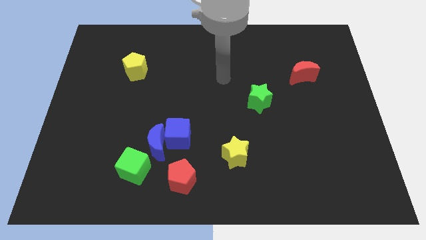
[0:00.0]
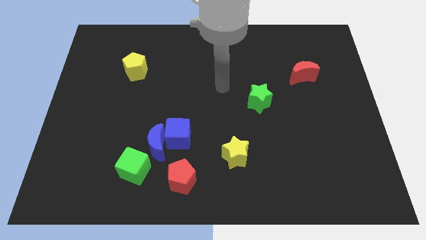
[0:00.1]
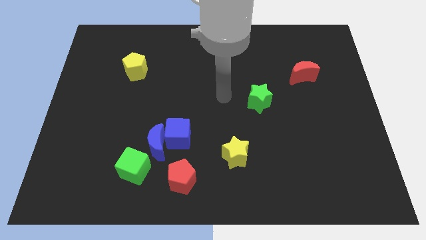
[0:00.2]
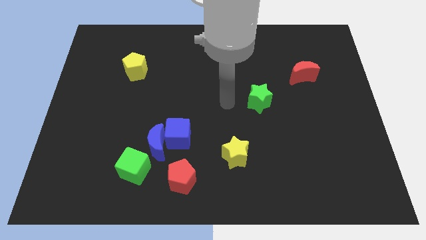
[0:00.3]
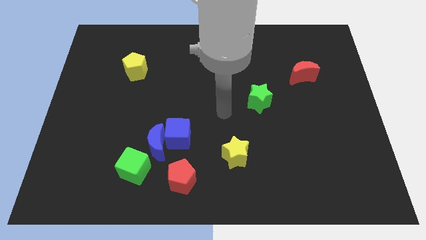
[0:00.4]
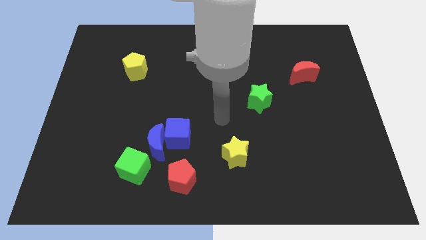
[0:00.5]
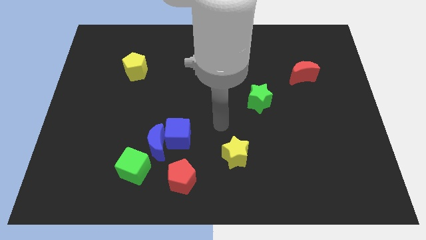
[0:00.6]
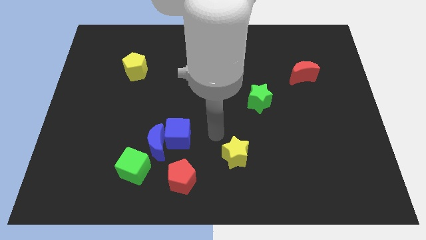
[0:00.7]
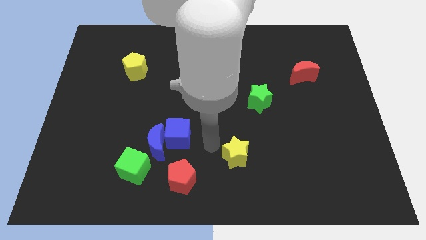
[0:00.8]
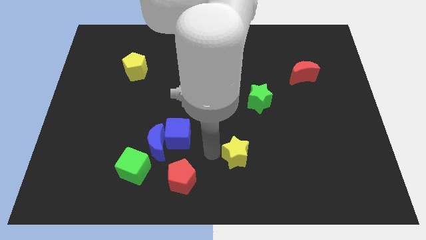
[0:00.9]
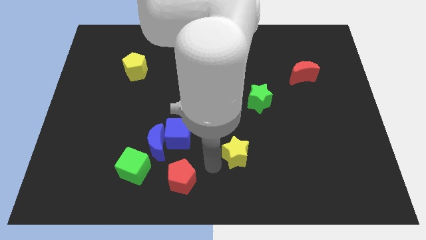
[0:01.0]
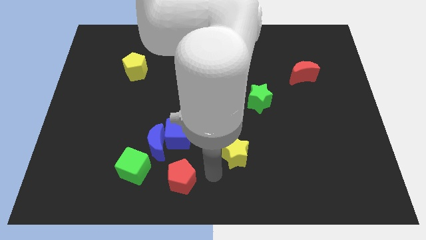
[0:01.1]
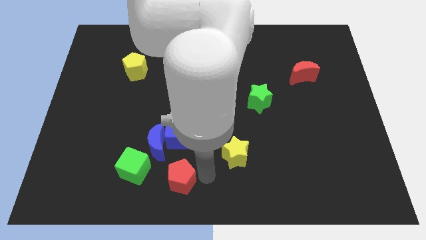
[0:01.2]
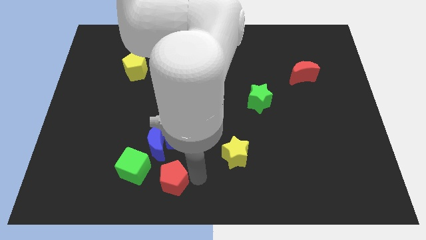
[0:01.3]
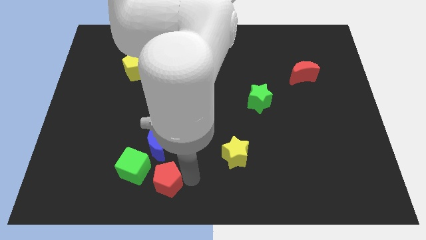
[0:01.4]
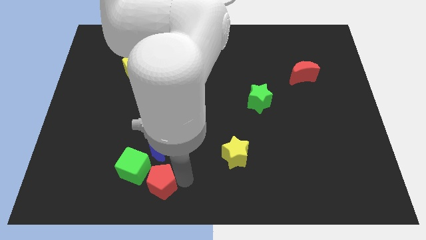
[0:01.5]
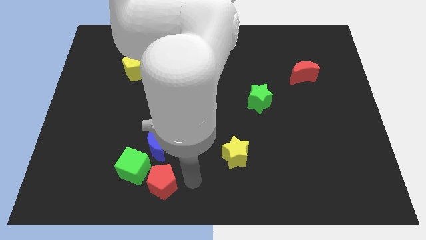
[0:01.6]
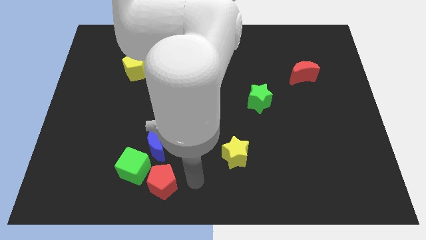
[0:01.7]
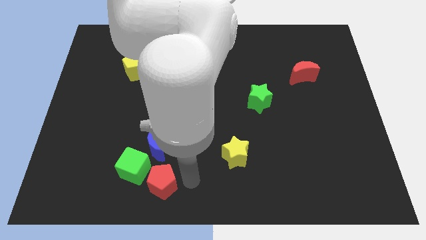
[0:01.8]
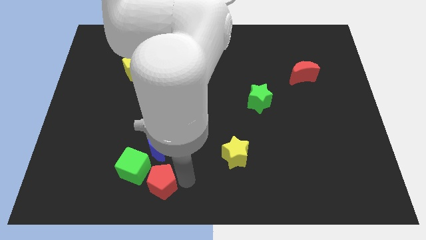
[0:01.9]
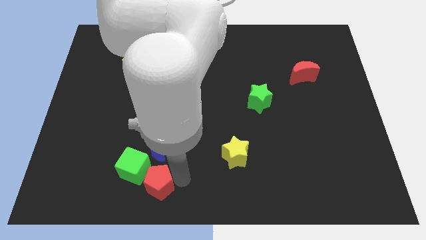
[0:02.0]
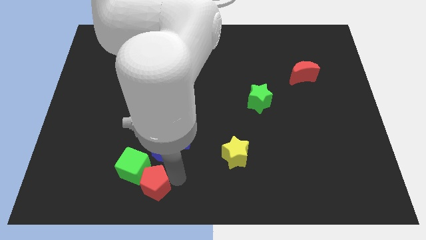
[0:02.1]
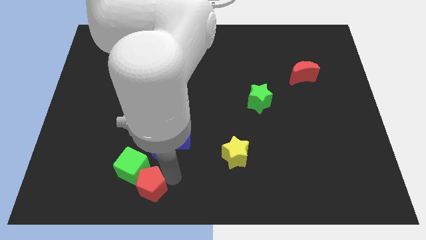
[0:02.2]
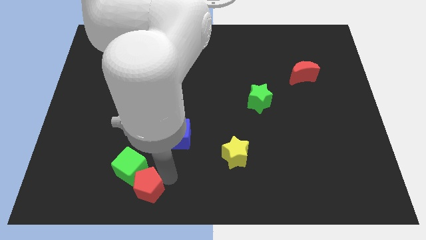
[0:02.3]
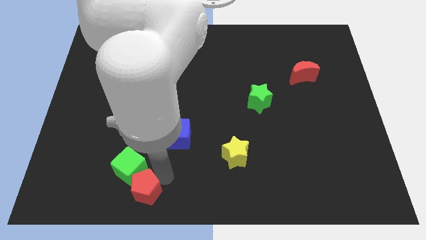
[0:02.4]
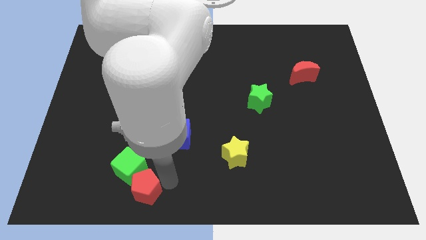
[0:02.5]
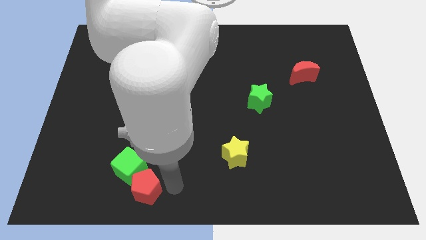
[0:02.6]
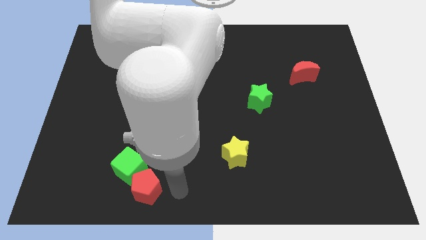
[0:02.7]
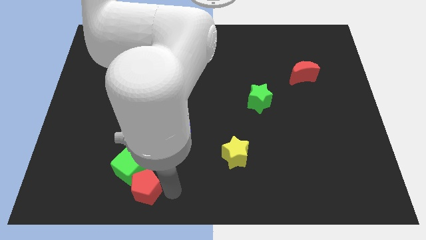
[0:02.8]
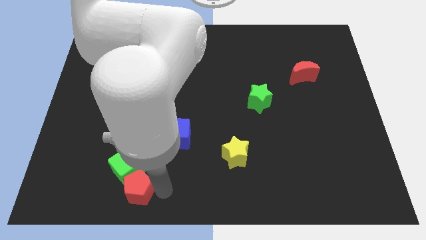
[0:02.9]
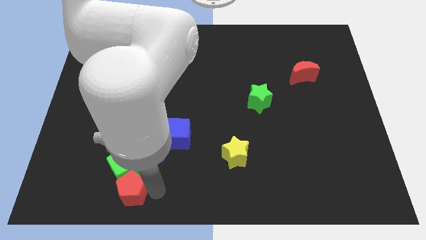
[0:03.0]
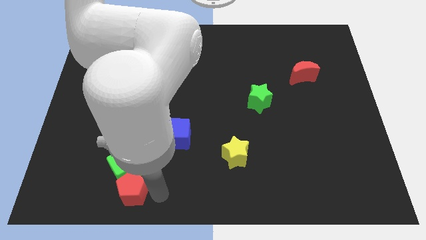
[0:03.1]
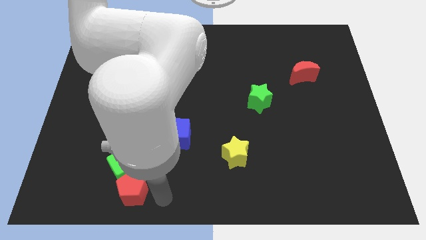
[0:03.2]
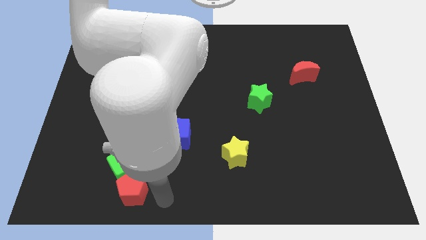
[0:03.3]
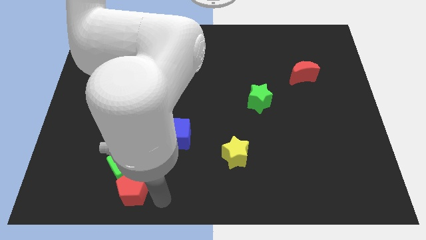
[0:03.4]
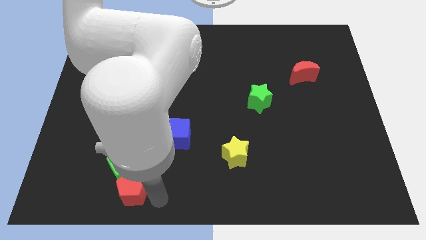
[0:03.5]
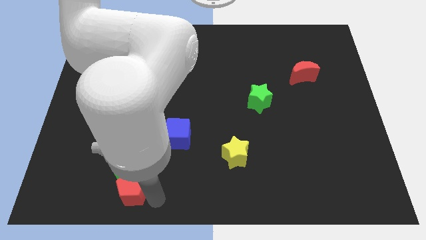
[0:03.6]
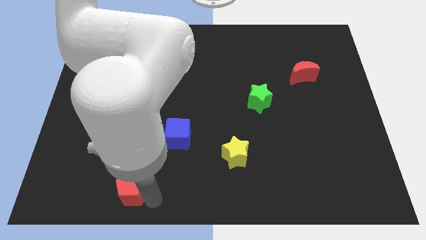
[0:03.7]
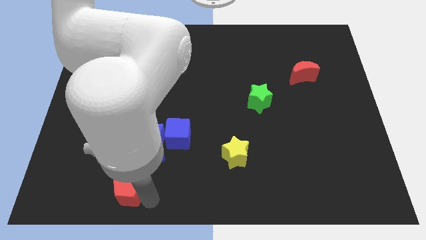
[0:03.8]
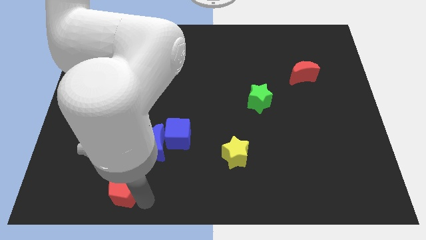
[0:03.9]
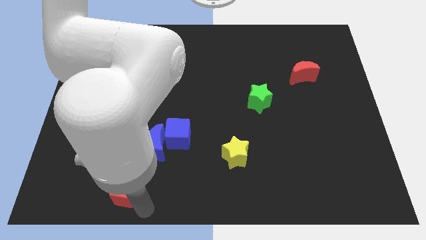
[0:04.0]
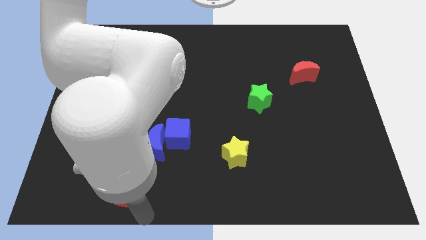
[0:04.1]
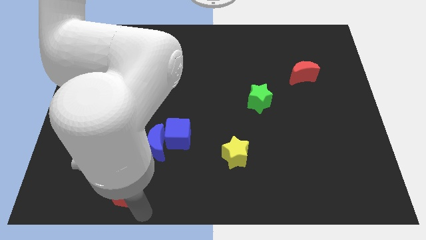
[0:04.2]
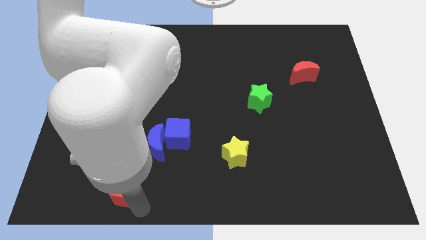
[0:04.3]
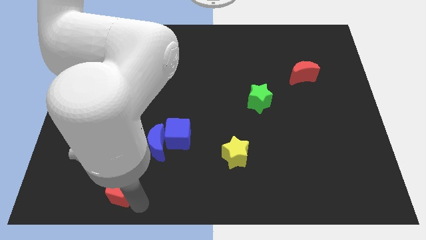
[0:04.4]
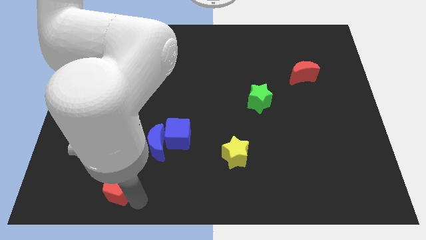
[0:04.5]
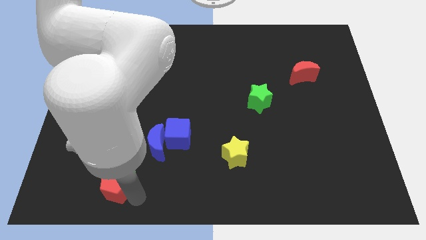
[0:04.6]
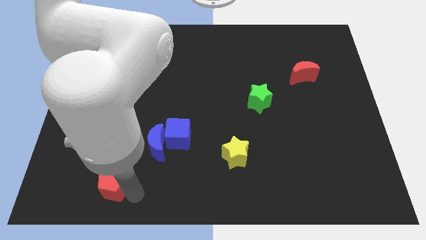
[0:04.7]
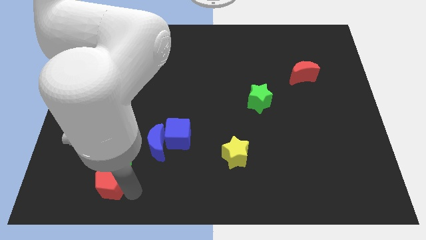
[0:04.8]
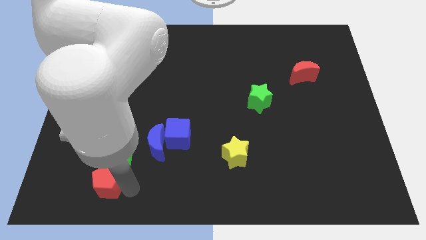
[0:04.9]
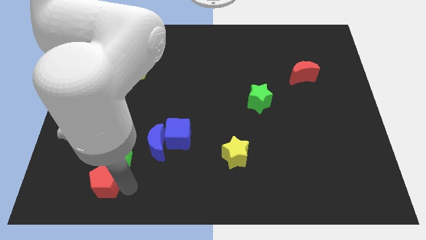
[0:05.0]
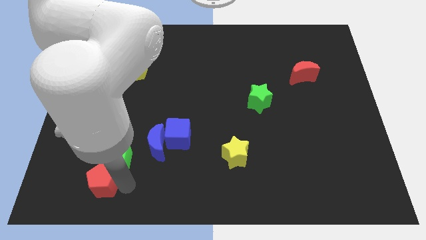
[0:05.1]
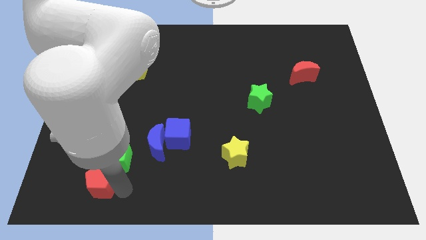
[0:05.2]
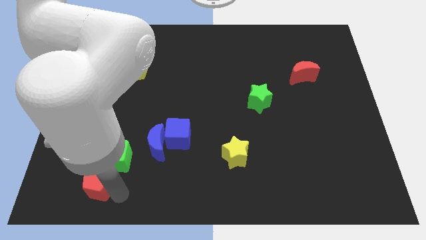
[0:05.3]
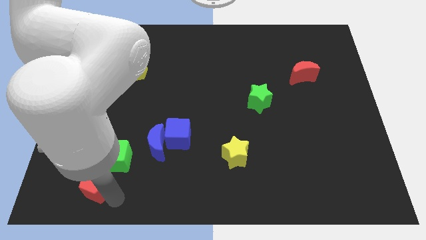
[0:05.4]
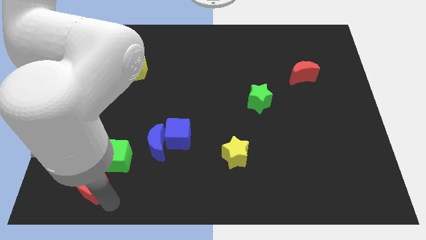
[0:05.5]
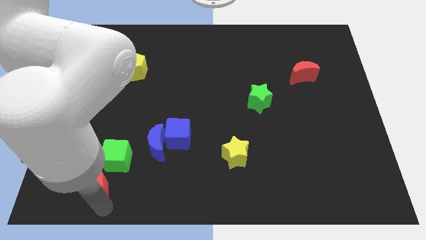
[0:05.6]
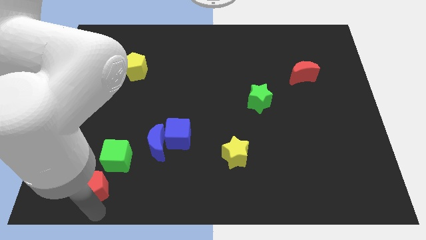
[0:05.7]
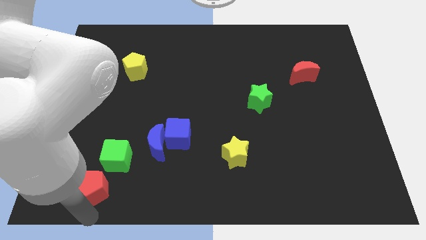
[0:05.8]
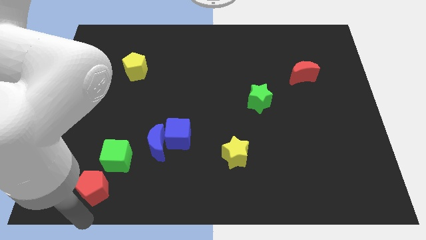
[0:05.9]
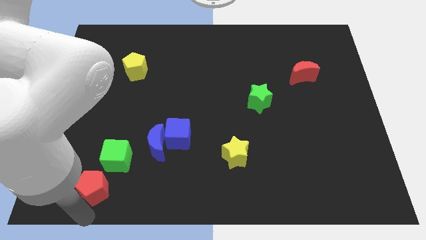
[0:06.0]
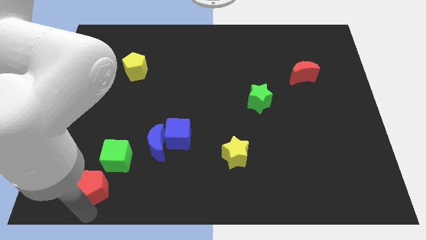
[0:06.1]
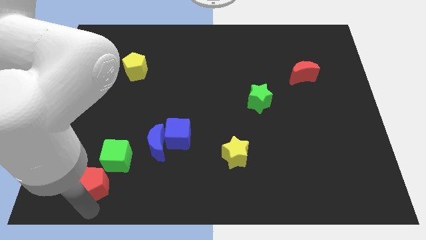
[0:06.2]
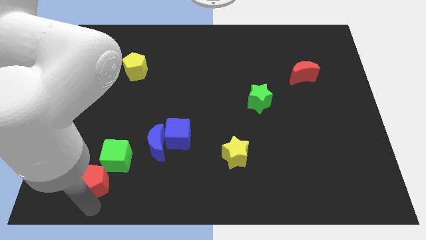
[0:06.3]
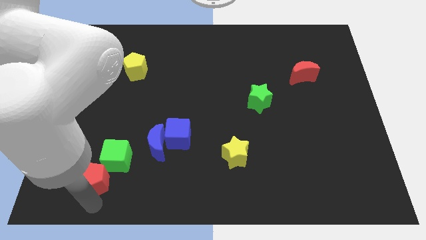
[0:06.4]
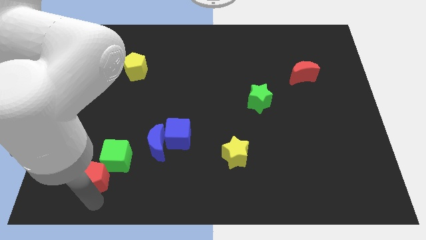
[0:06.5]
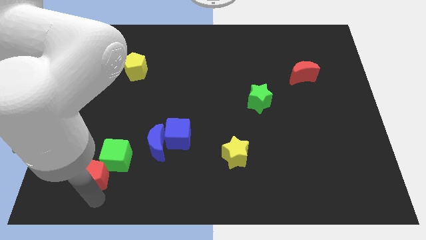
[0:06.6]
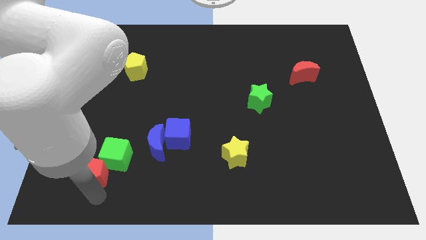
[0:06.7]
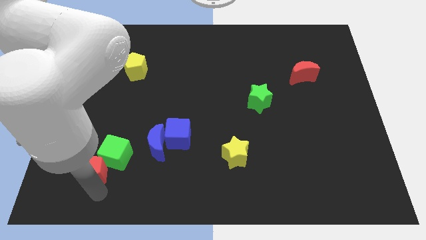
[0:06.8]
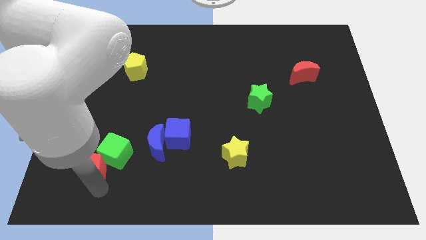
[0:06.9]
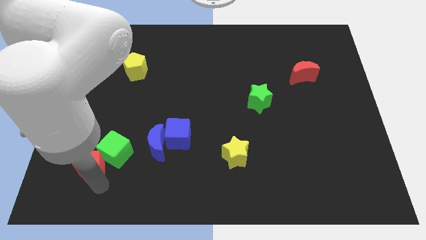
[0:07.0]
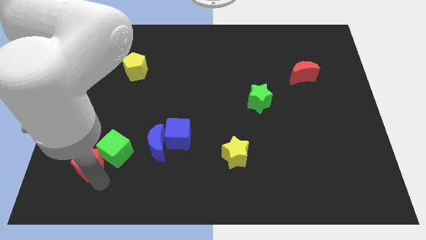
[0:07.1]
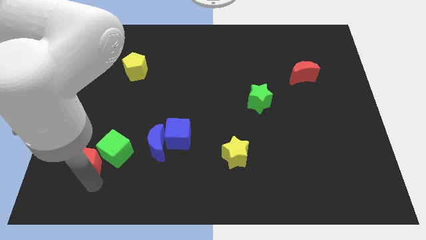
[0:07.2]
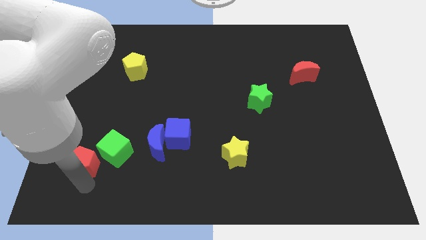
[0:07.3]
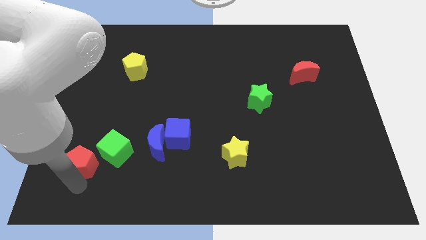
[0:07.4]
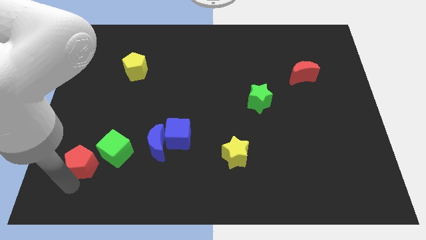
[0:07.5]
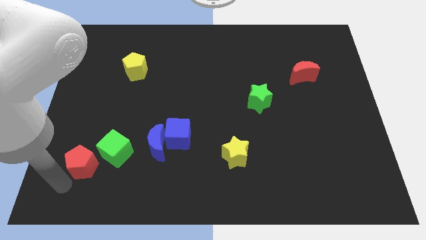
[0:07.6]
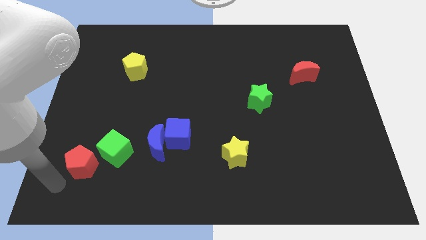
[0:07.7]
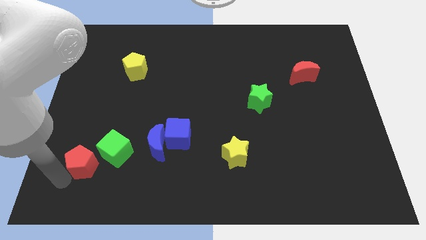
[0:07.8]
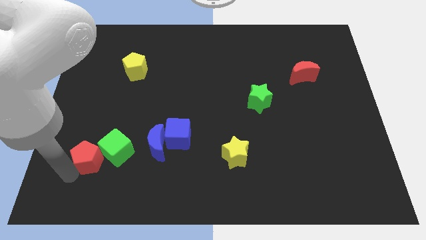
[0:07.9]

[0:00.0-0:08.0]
slide the red pentagon to the left of the blue moon
